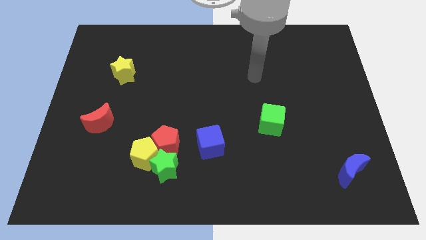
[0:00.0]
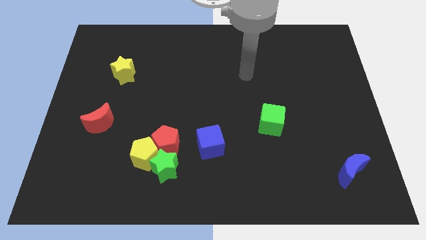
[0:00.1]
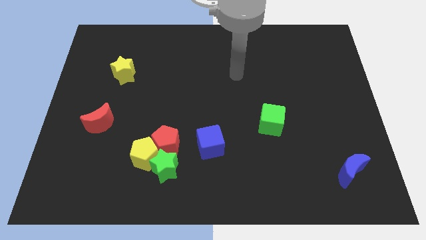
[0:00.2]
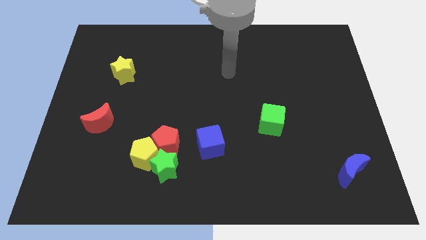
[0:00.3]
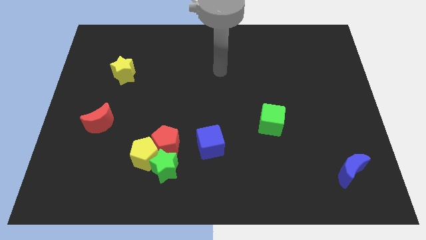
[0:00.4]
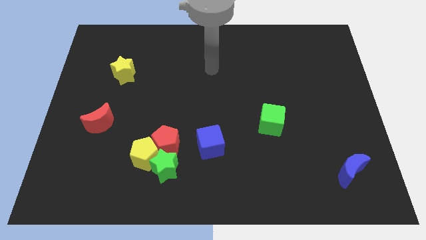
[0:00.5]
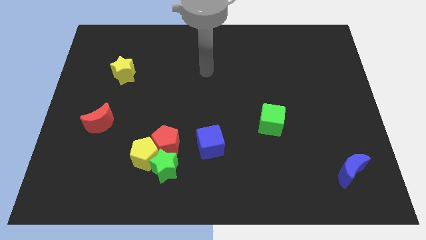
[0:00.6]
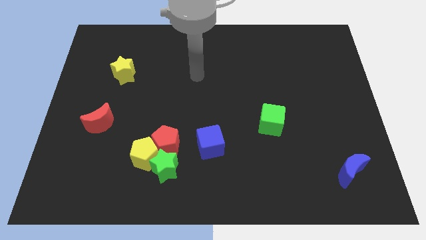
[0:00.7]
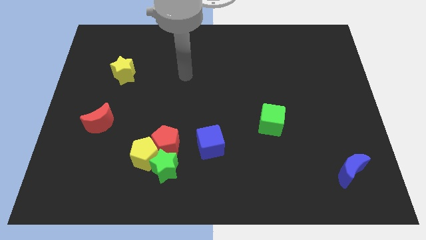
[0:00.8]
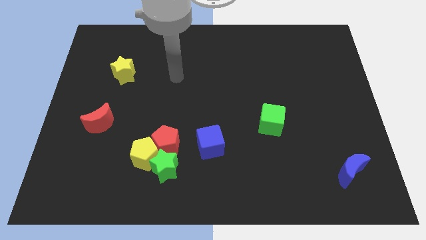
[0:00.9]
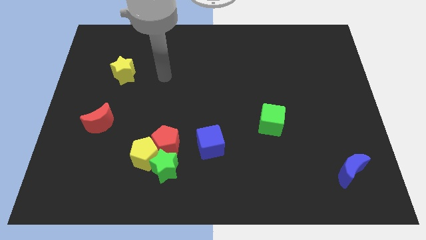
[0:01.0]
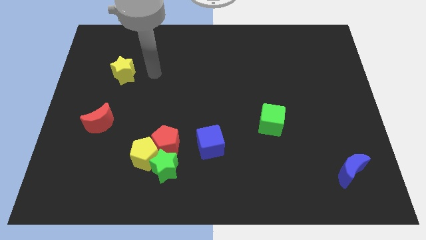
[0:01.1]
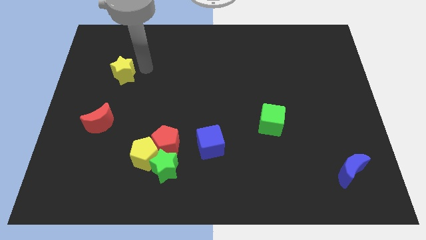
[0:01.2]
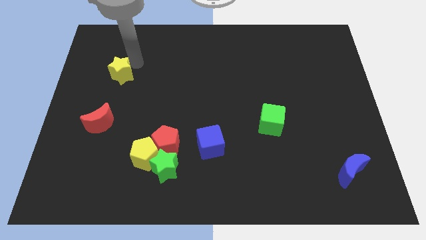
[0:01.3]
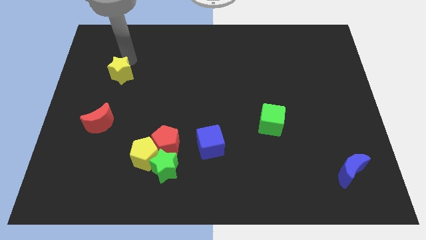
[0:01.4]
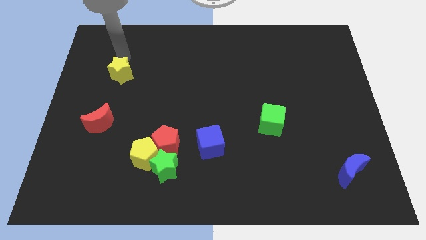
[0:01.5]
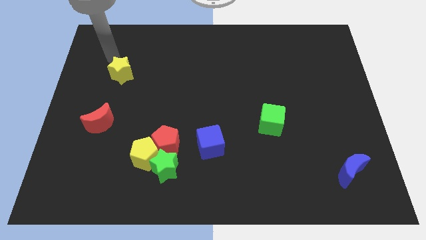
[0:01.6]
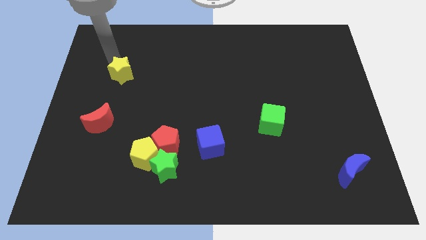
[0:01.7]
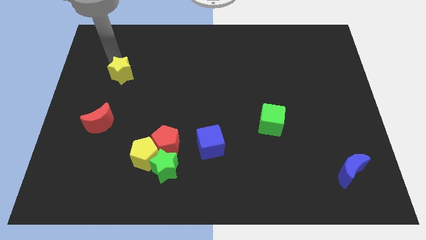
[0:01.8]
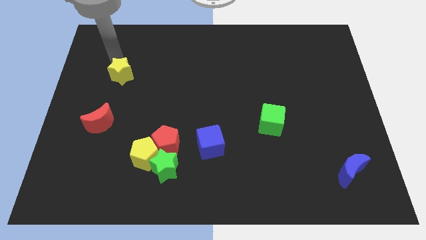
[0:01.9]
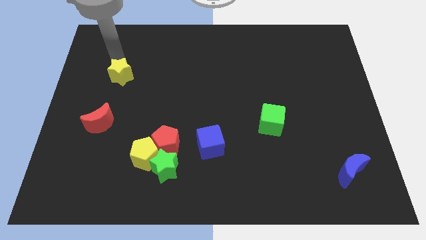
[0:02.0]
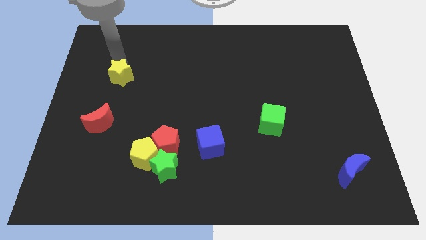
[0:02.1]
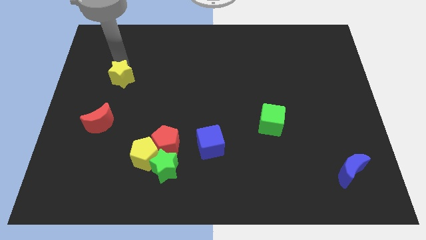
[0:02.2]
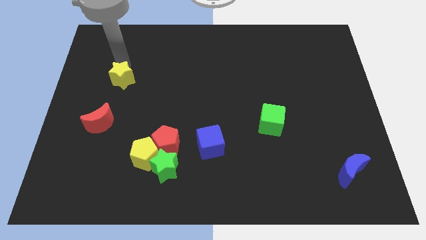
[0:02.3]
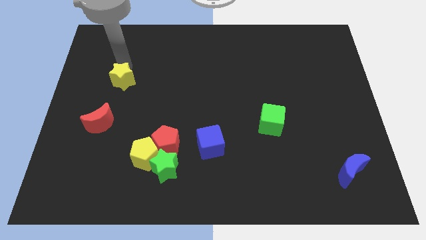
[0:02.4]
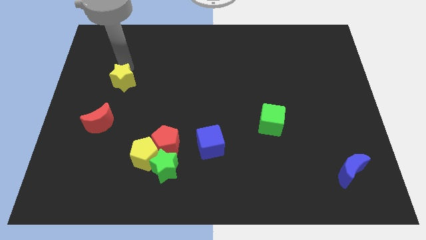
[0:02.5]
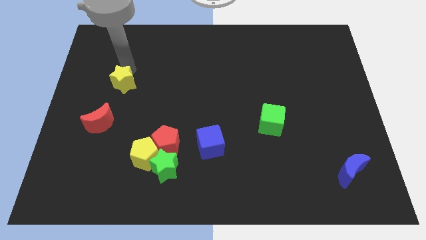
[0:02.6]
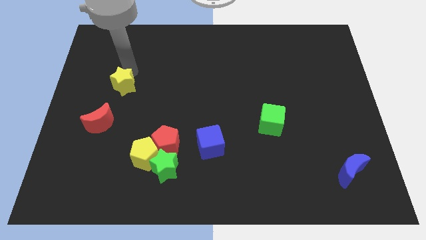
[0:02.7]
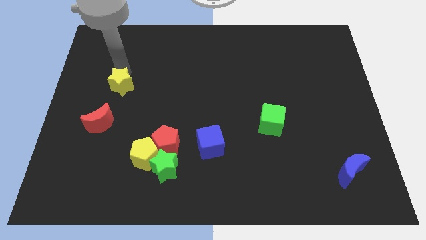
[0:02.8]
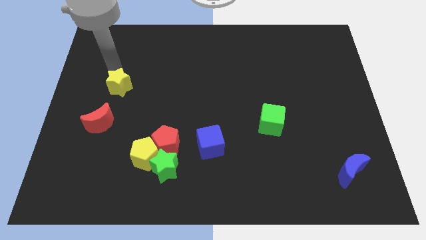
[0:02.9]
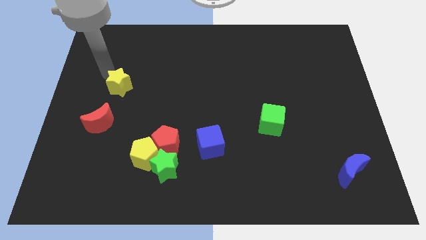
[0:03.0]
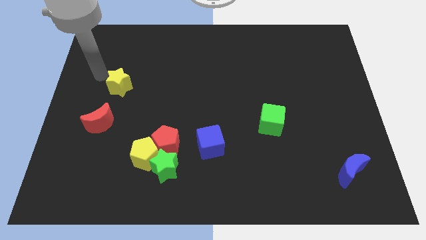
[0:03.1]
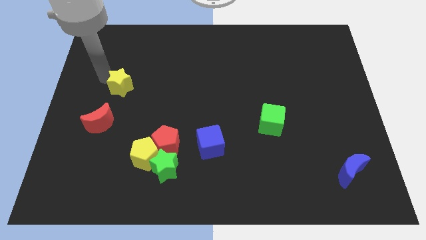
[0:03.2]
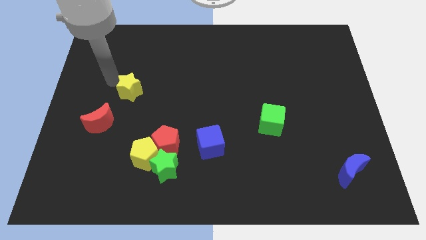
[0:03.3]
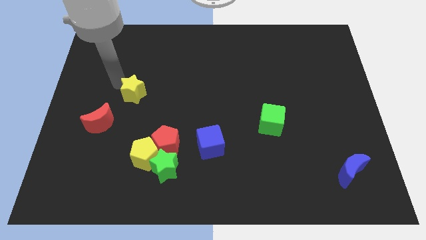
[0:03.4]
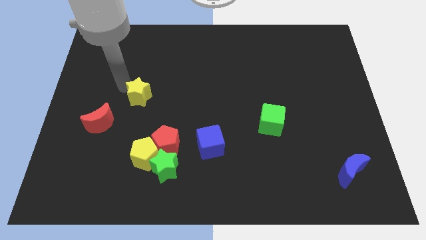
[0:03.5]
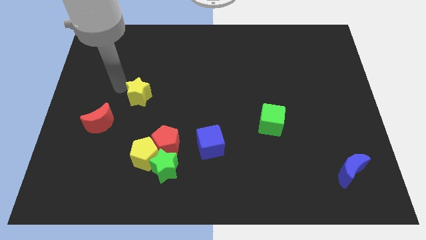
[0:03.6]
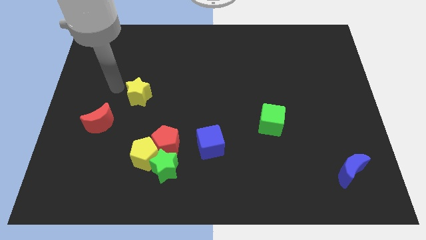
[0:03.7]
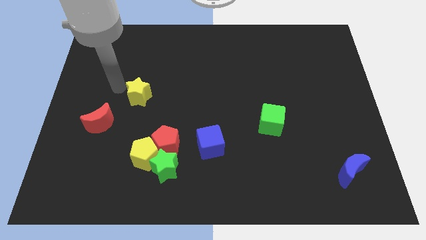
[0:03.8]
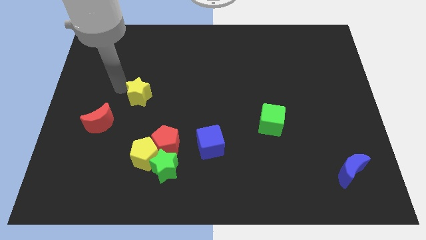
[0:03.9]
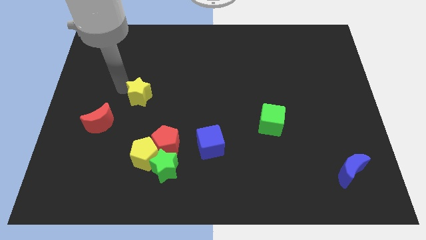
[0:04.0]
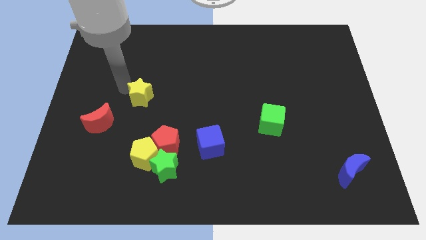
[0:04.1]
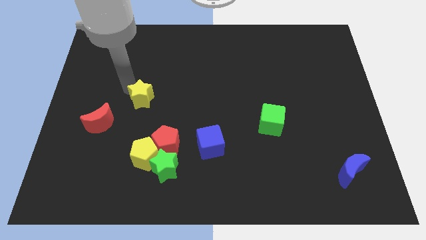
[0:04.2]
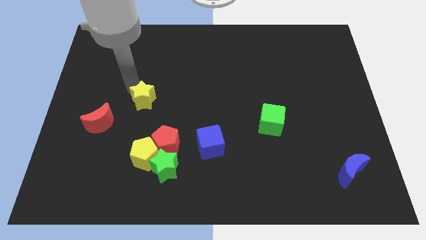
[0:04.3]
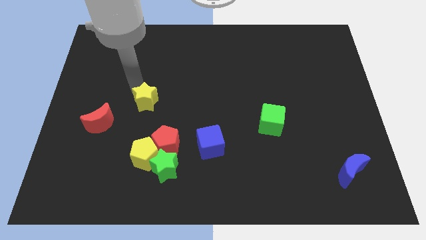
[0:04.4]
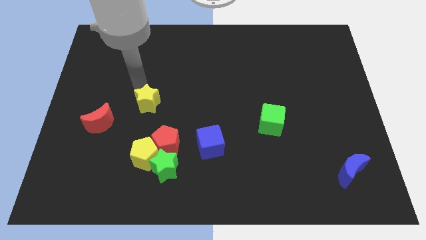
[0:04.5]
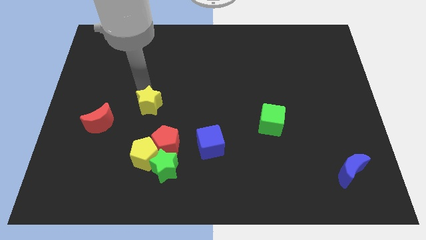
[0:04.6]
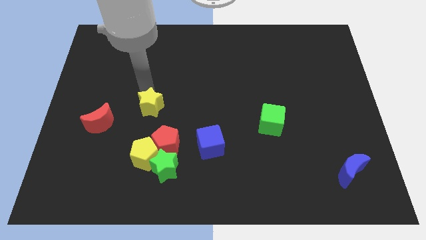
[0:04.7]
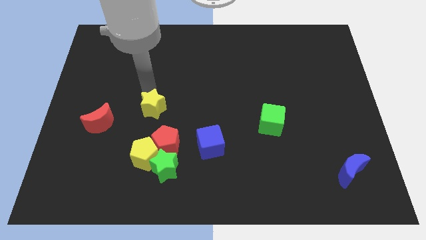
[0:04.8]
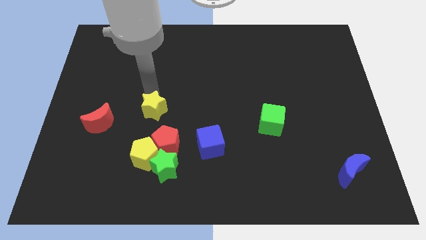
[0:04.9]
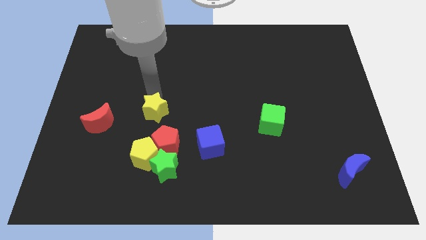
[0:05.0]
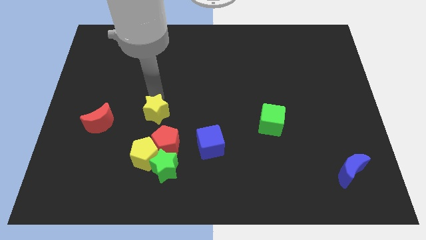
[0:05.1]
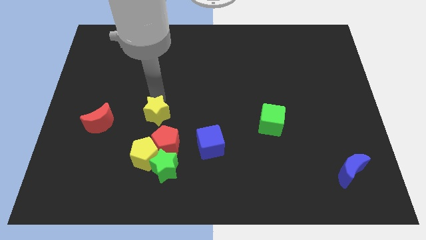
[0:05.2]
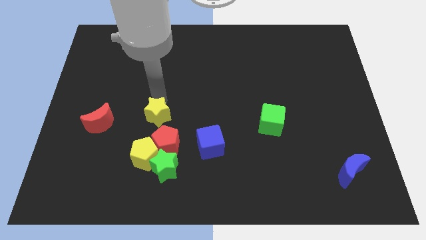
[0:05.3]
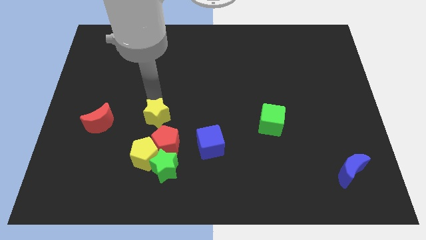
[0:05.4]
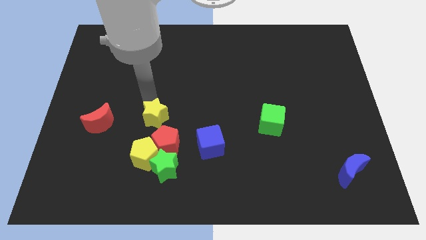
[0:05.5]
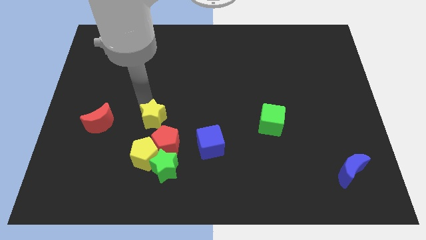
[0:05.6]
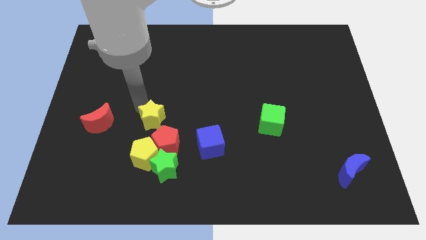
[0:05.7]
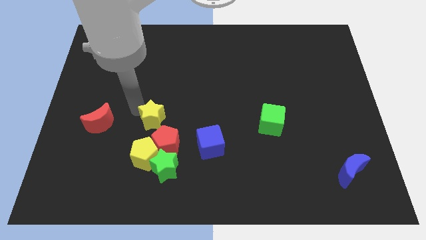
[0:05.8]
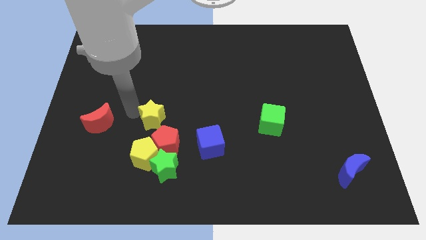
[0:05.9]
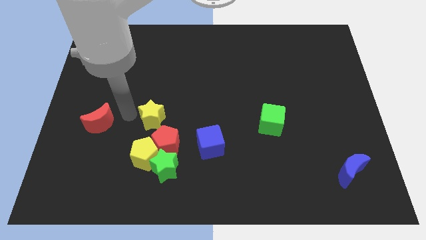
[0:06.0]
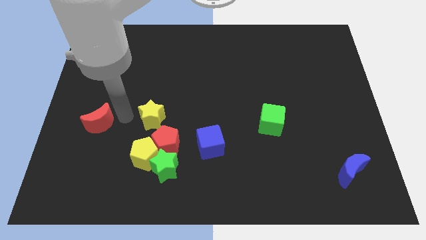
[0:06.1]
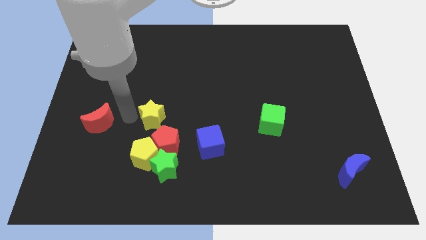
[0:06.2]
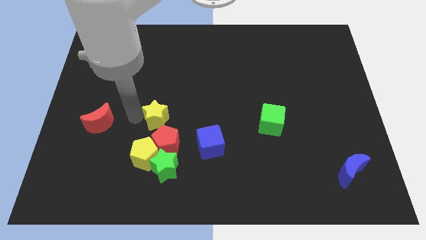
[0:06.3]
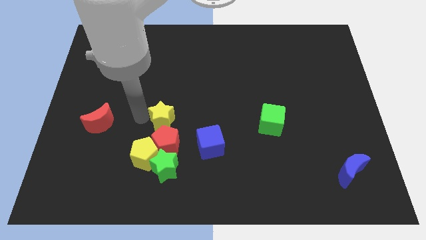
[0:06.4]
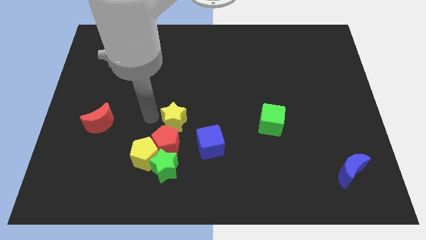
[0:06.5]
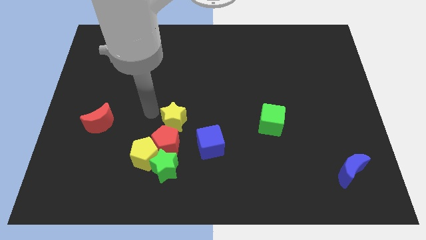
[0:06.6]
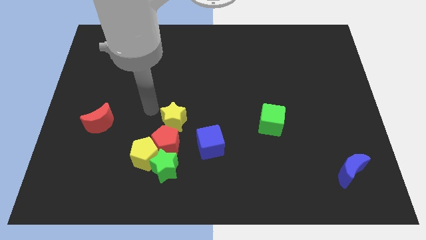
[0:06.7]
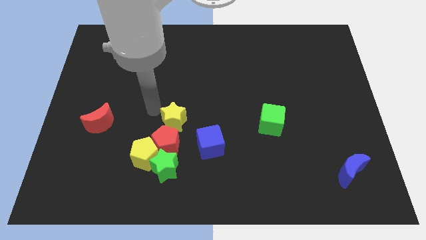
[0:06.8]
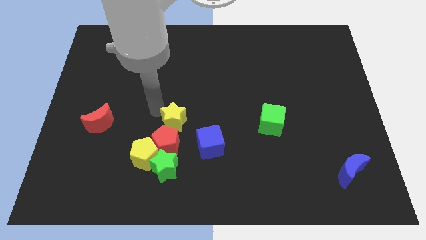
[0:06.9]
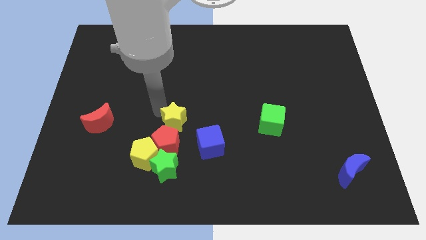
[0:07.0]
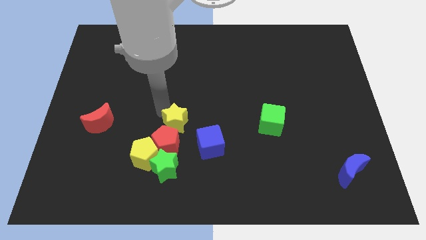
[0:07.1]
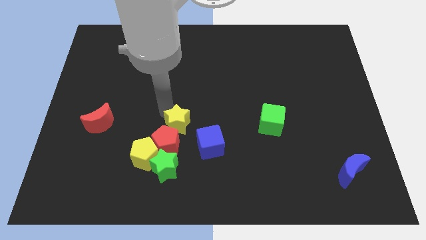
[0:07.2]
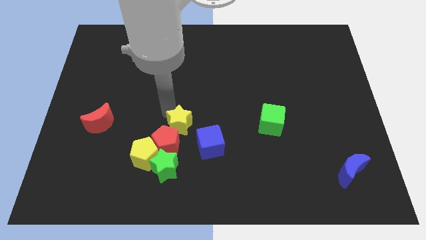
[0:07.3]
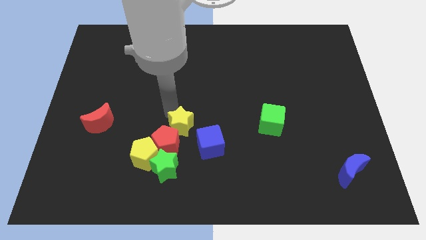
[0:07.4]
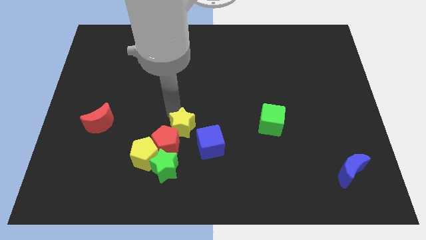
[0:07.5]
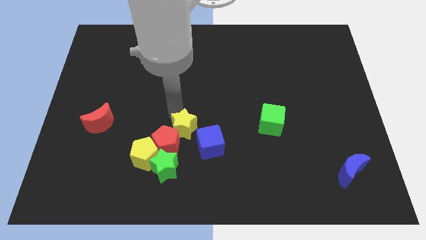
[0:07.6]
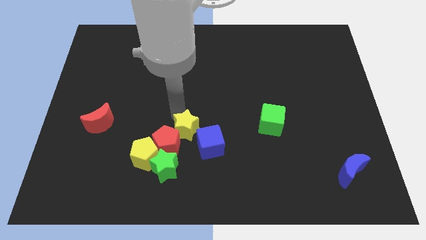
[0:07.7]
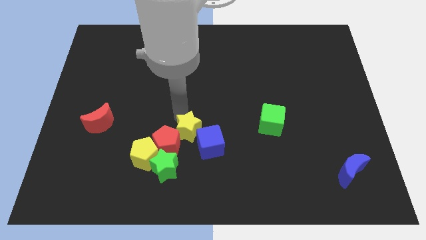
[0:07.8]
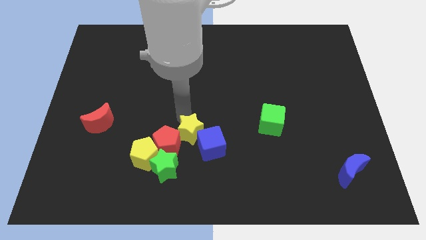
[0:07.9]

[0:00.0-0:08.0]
push the yellow star towards the blue cube

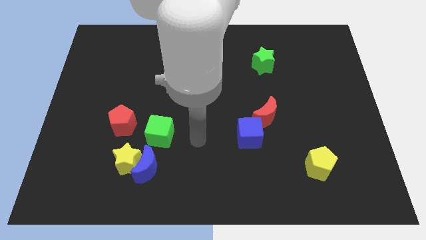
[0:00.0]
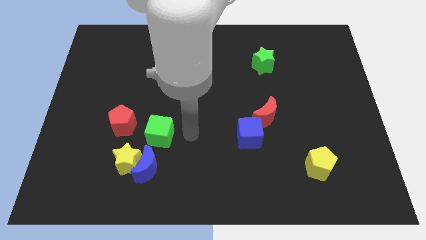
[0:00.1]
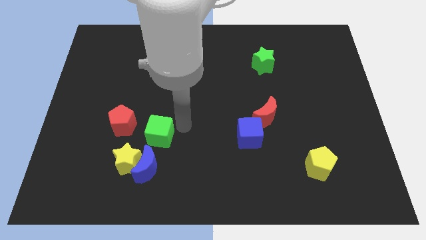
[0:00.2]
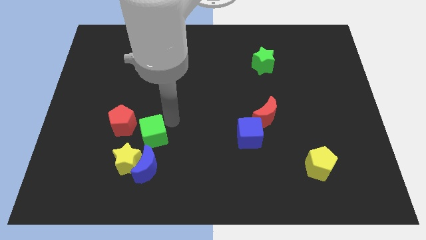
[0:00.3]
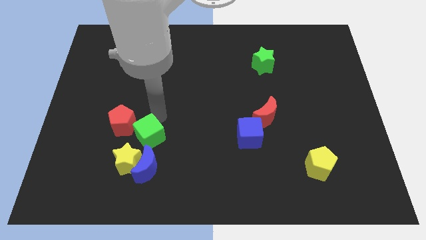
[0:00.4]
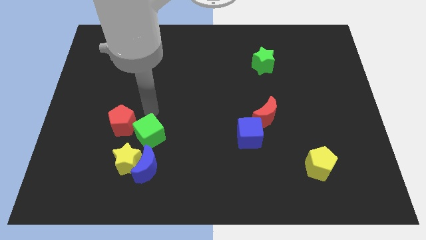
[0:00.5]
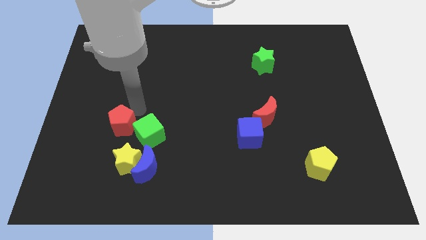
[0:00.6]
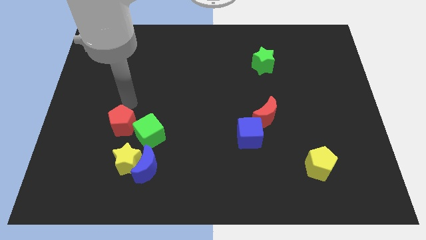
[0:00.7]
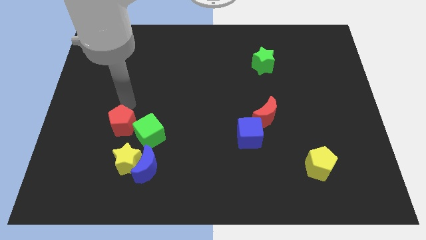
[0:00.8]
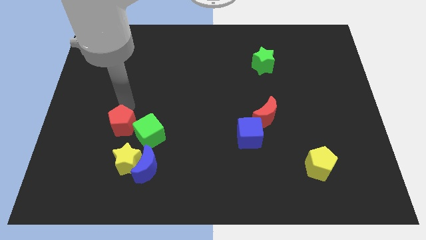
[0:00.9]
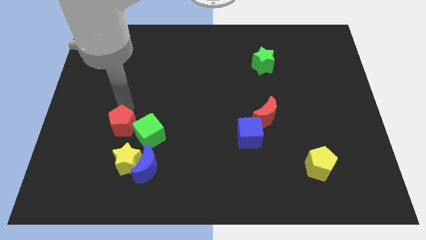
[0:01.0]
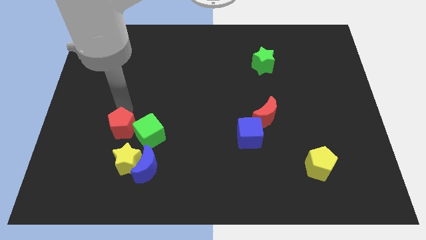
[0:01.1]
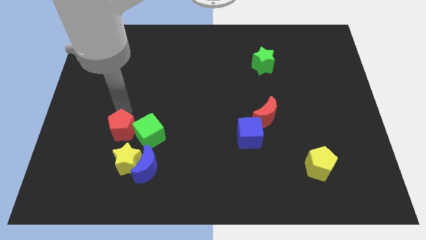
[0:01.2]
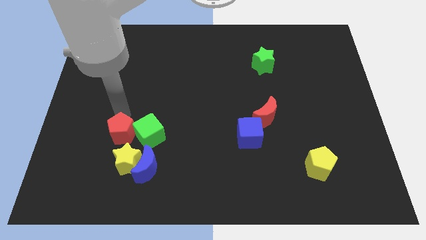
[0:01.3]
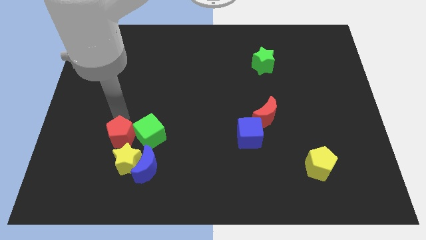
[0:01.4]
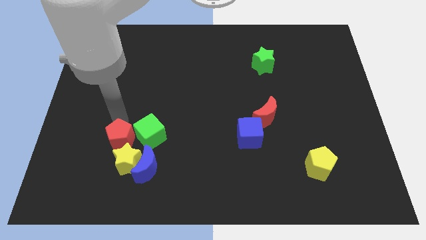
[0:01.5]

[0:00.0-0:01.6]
move the red pentagon towards the yellow star
